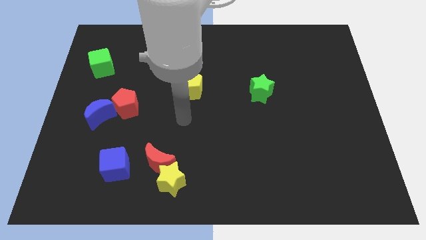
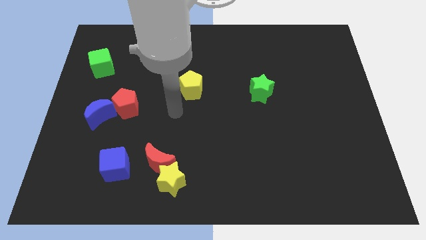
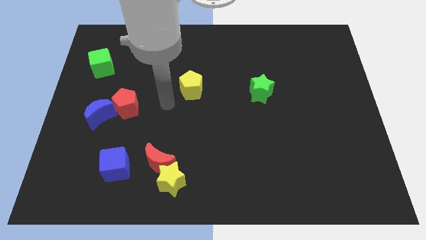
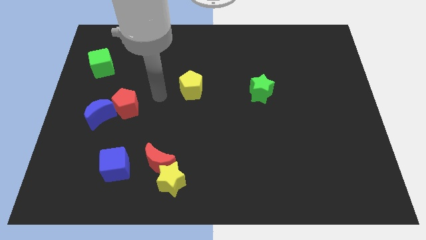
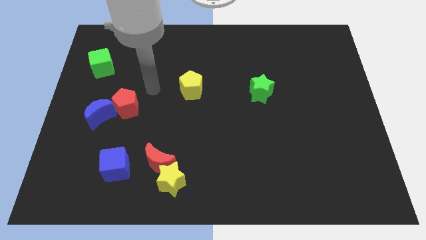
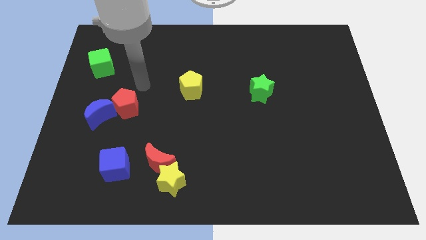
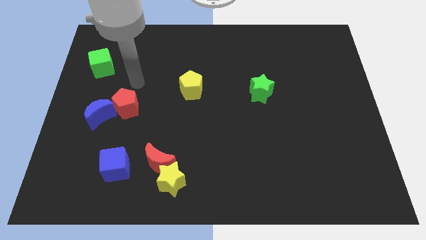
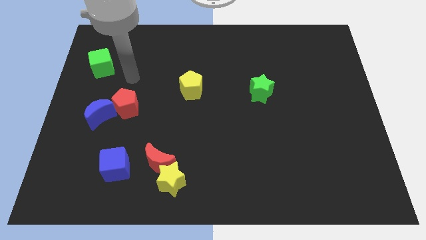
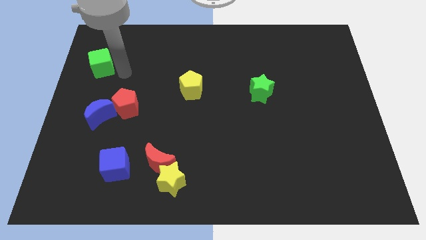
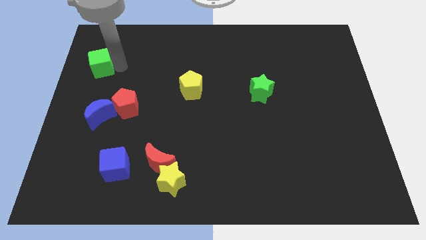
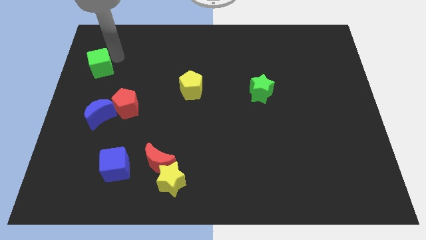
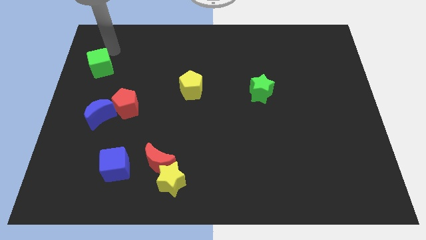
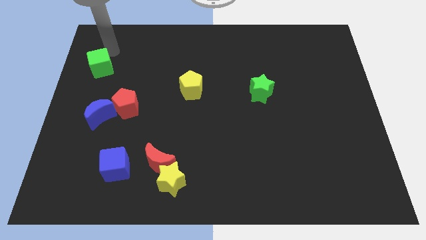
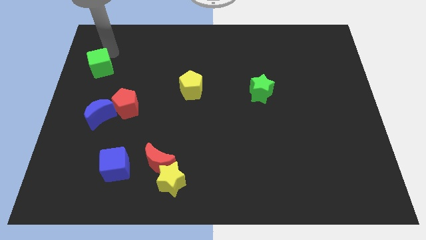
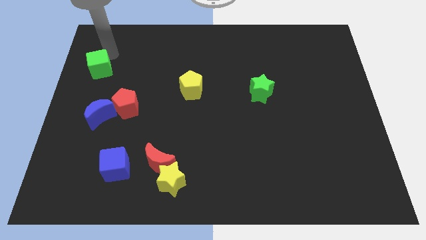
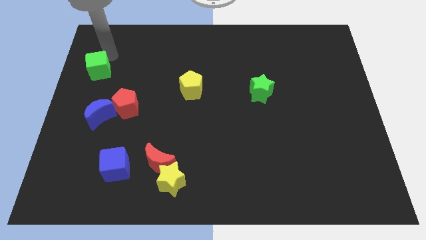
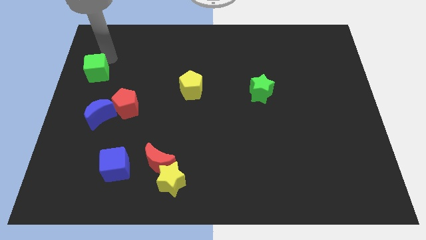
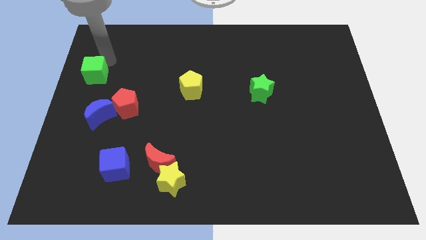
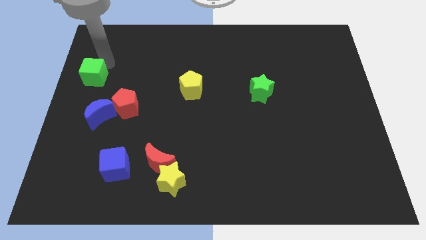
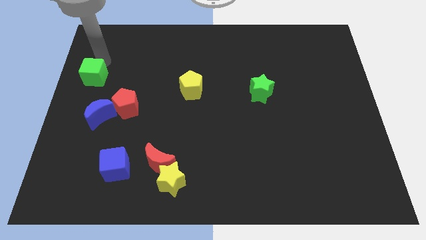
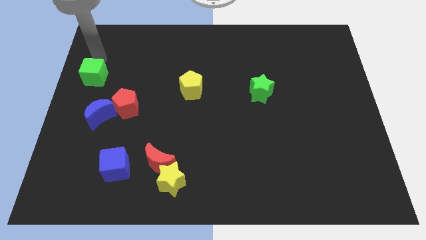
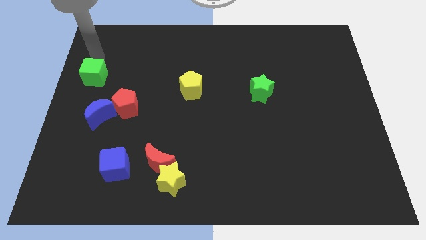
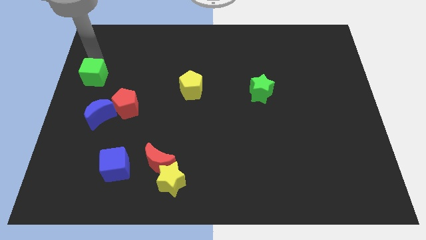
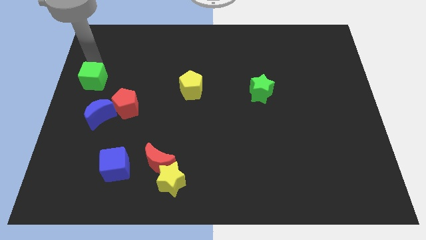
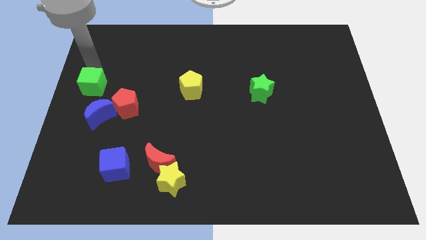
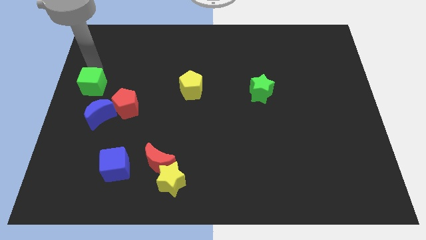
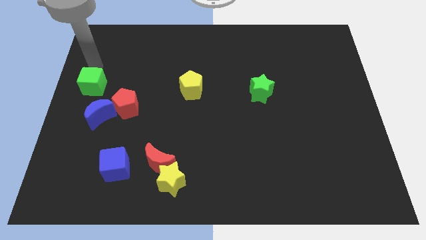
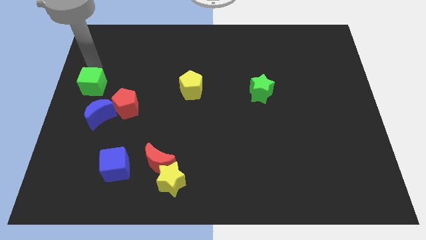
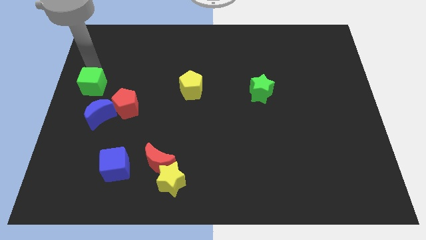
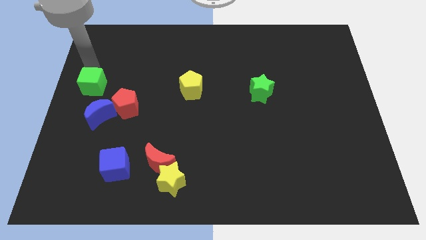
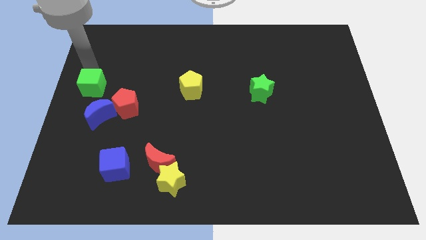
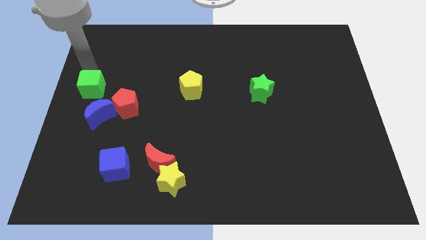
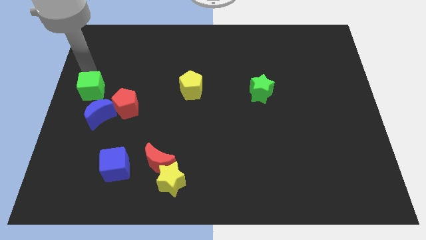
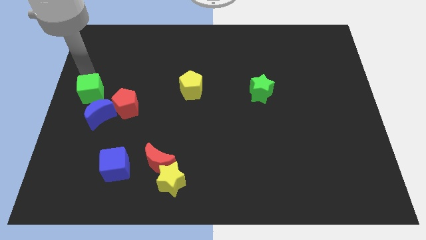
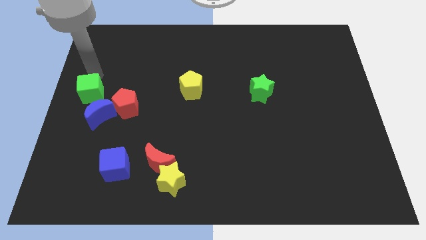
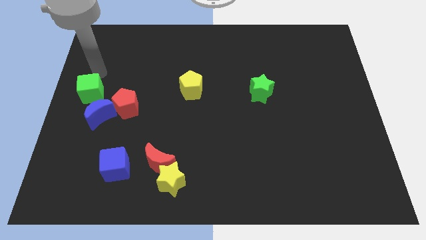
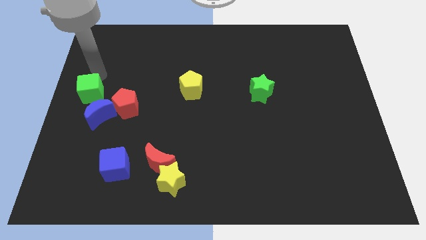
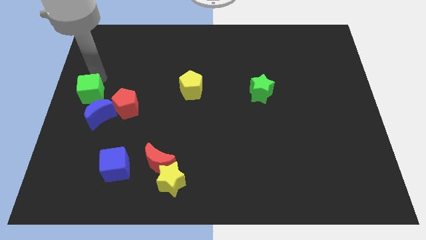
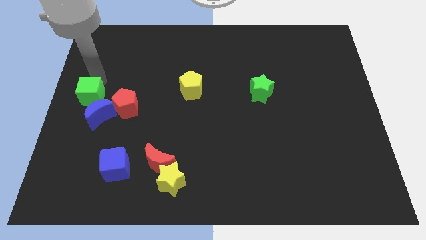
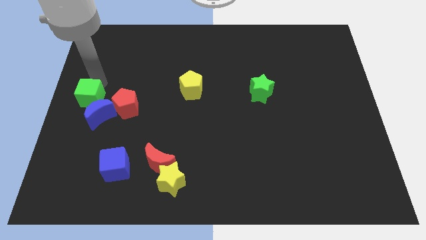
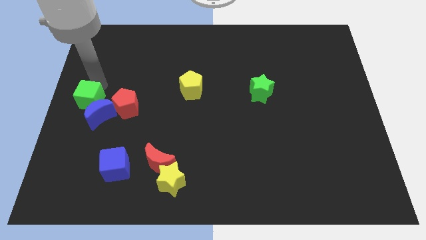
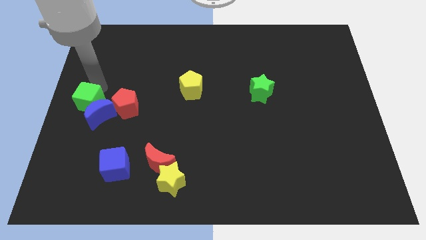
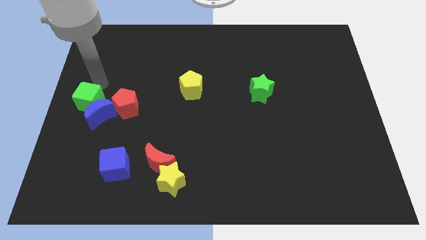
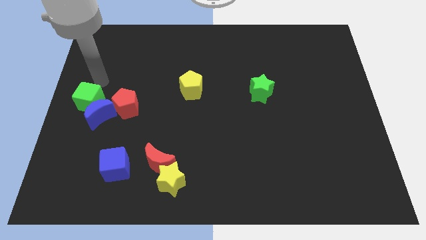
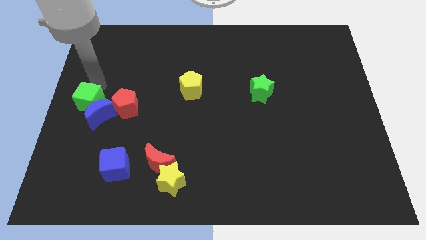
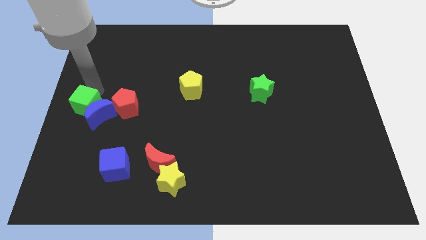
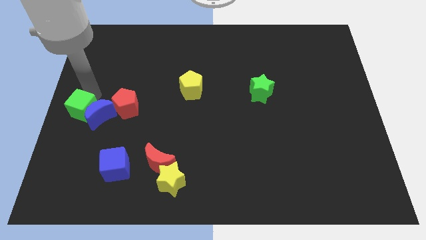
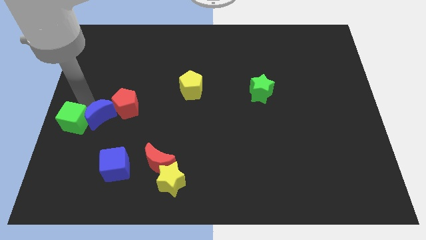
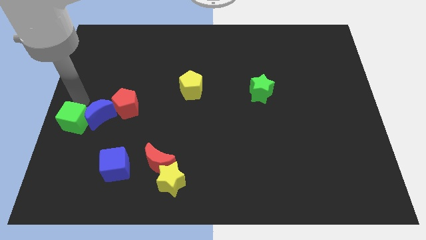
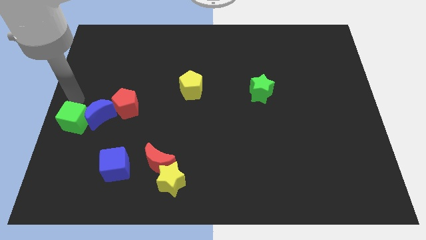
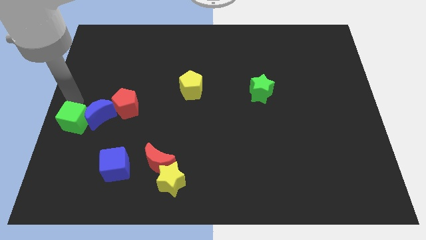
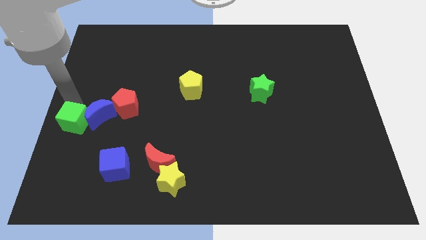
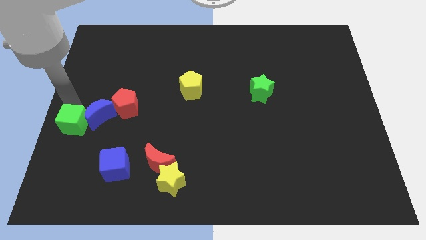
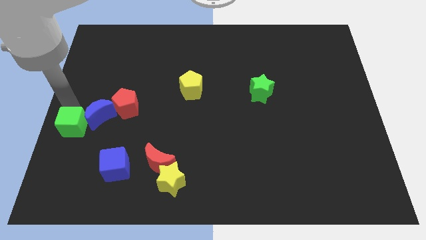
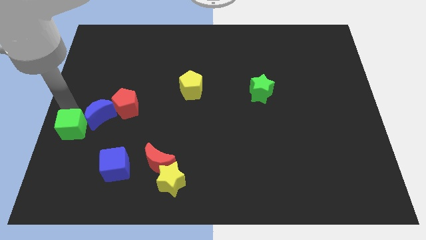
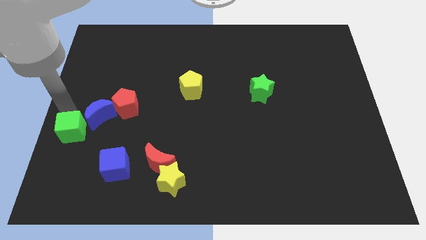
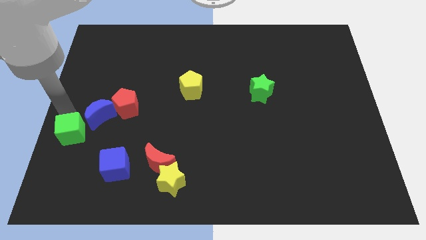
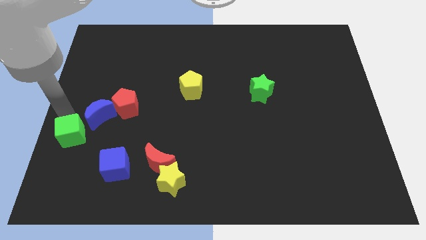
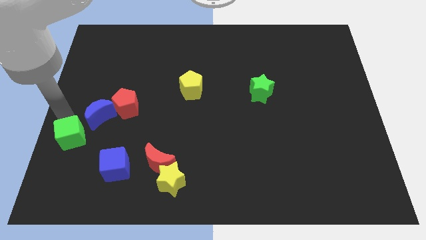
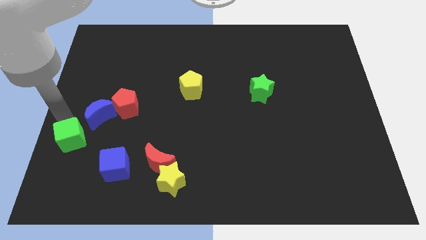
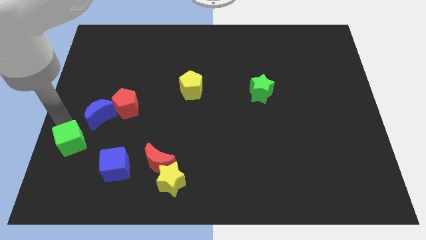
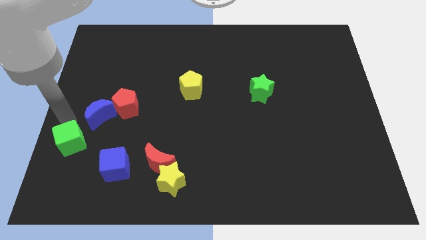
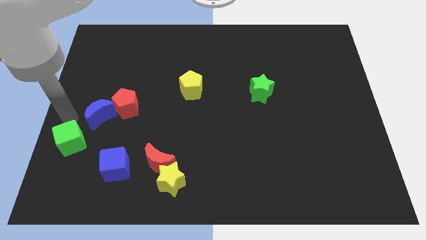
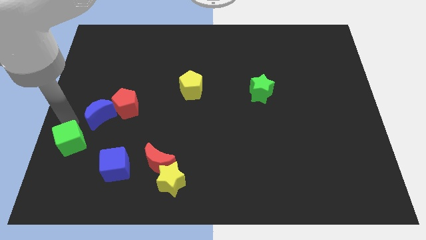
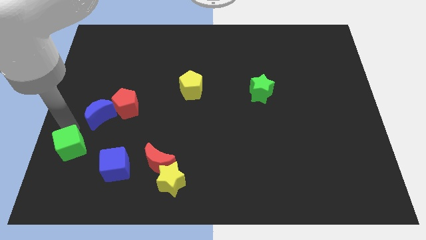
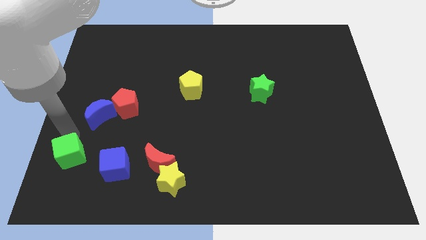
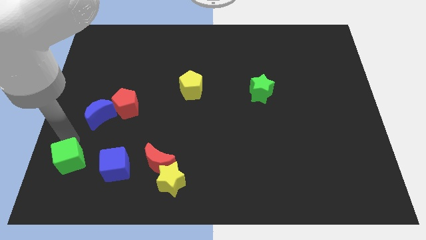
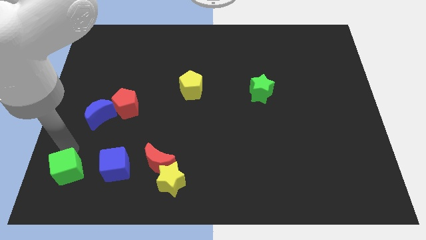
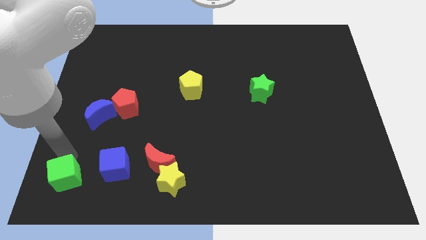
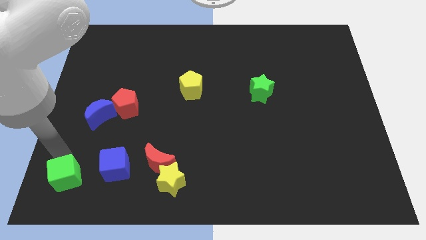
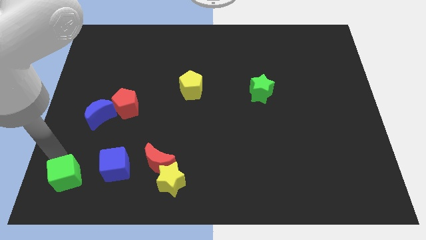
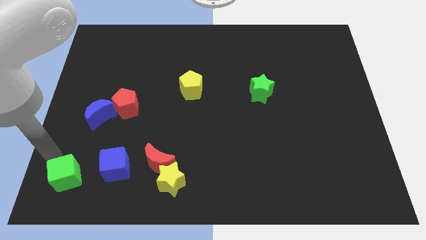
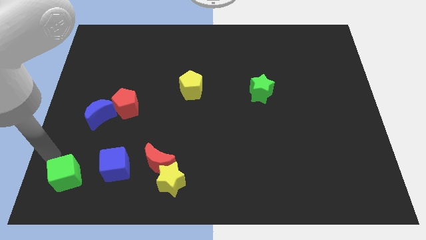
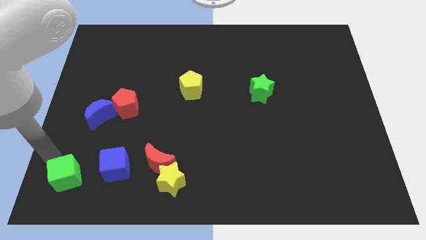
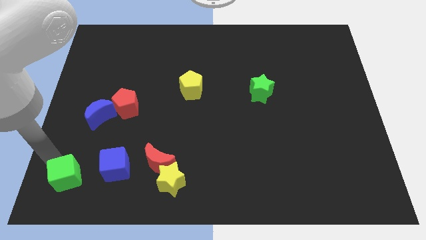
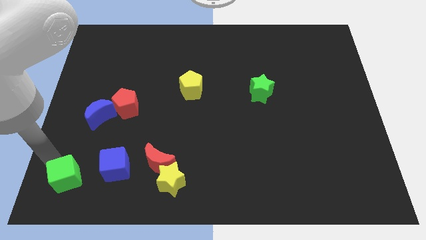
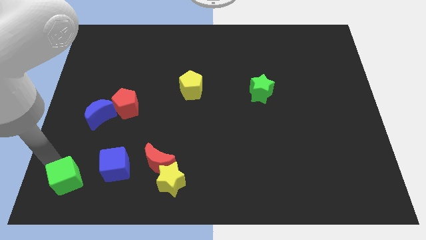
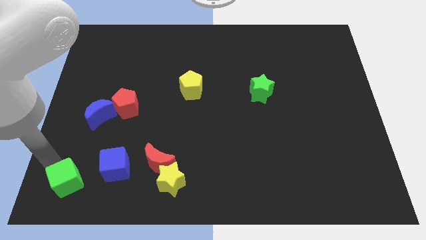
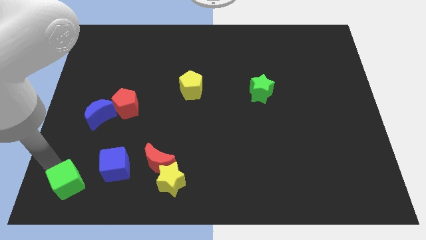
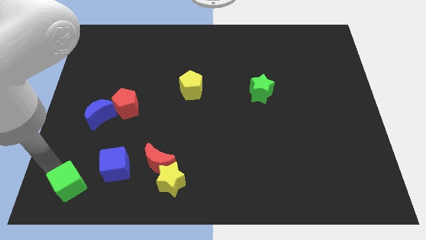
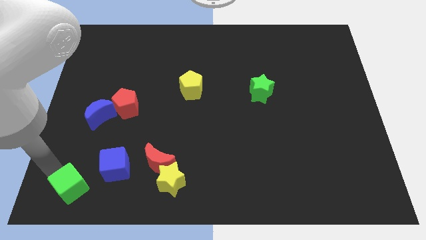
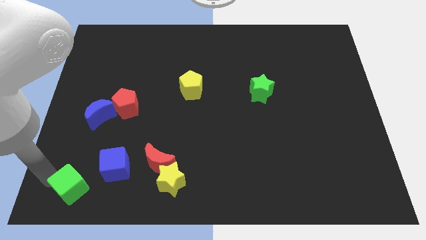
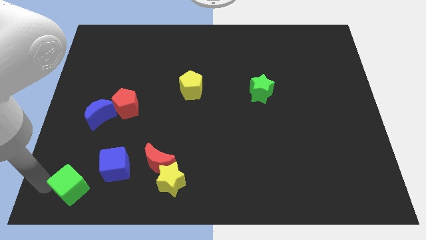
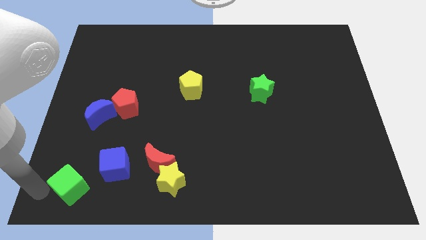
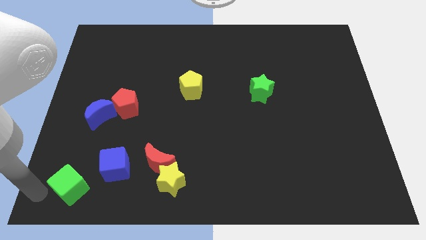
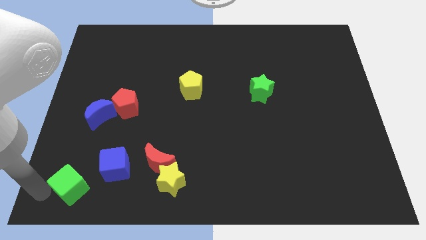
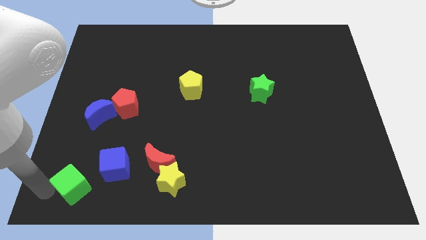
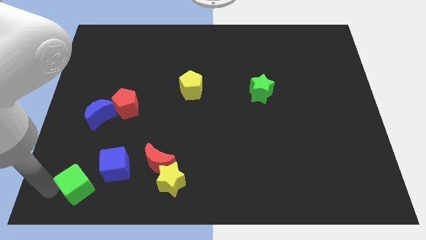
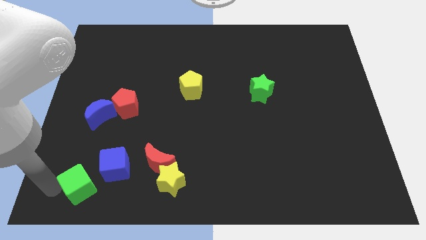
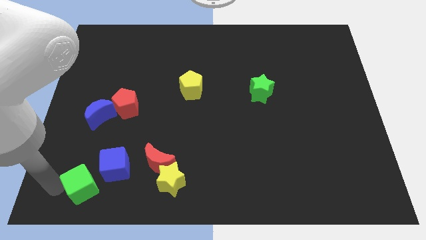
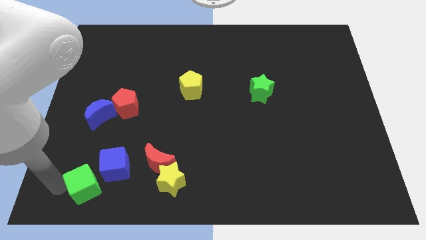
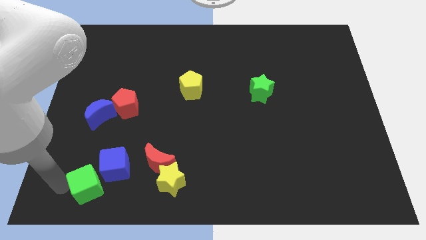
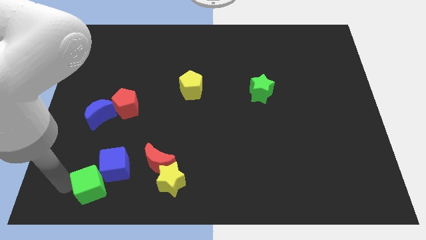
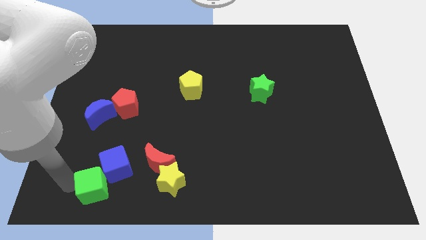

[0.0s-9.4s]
move the green cube to the left side of the yellow star
